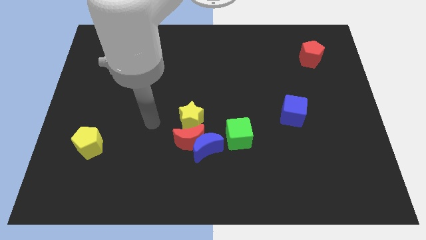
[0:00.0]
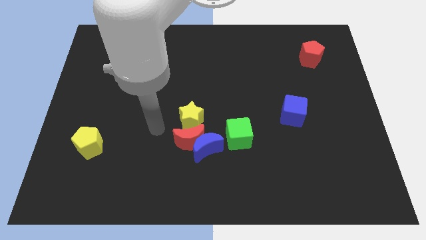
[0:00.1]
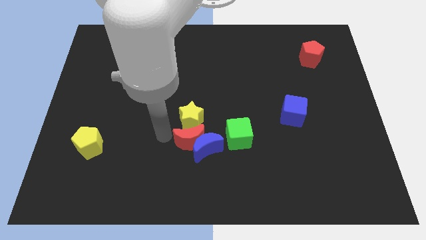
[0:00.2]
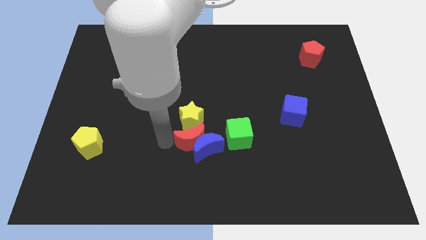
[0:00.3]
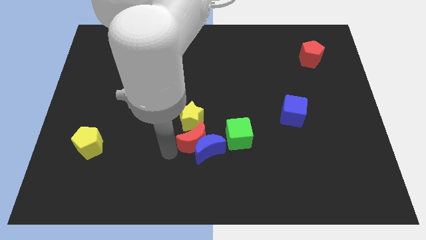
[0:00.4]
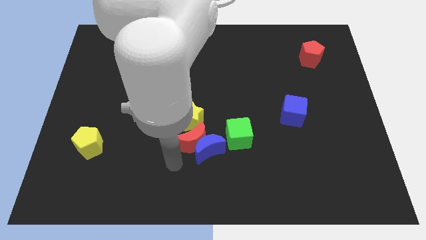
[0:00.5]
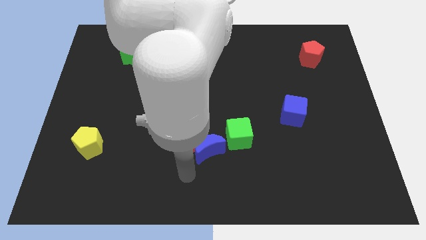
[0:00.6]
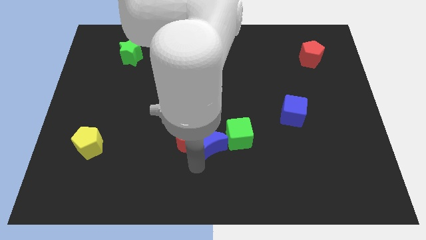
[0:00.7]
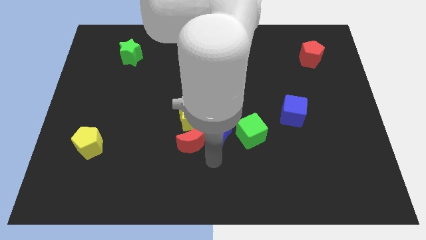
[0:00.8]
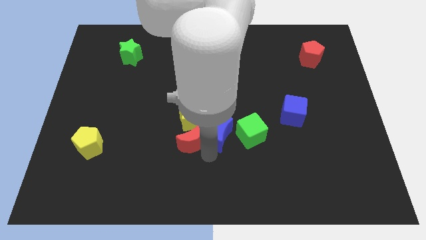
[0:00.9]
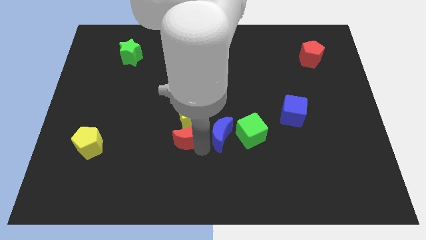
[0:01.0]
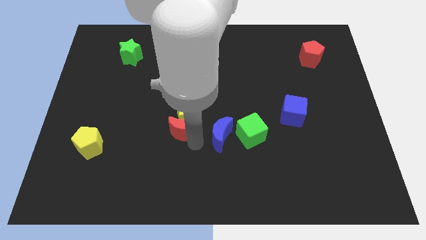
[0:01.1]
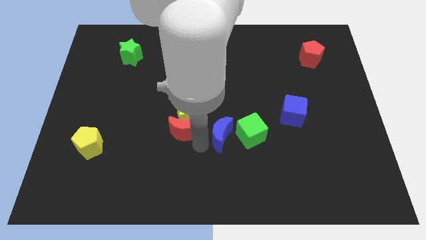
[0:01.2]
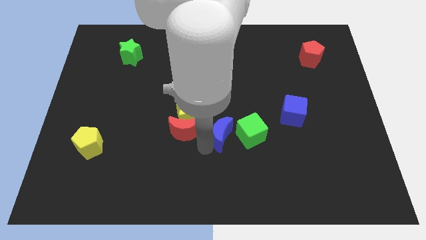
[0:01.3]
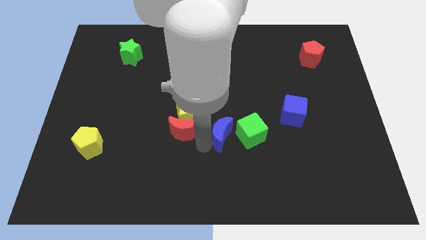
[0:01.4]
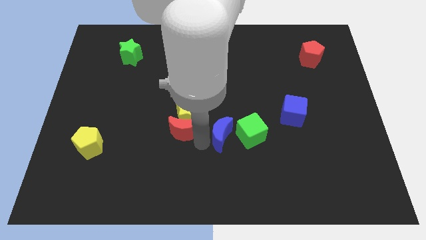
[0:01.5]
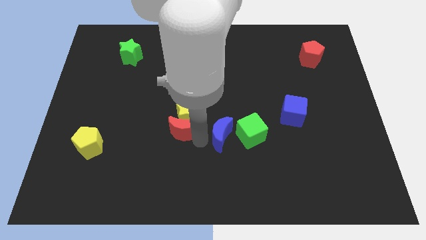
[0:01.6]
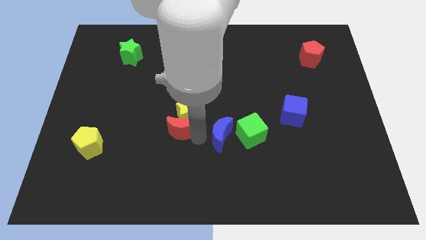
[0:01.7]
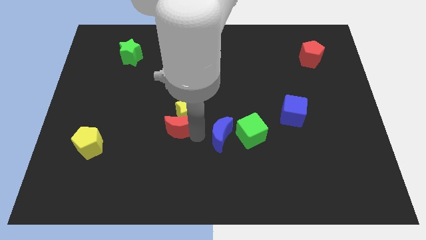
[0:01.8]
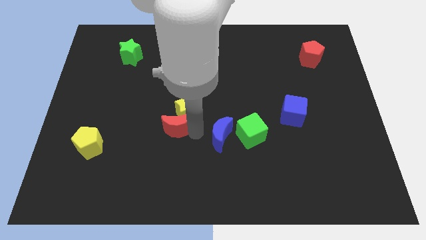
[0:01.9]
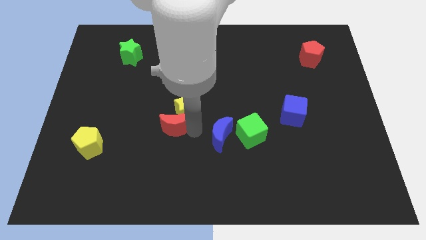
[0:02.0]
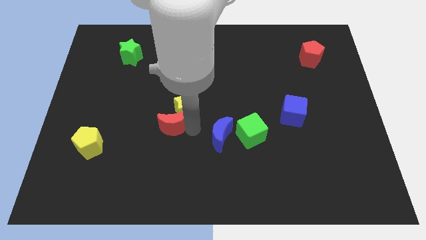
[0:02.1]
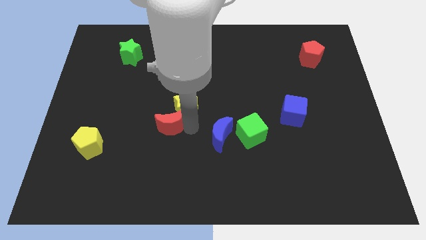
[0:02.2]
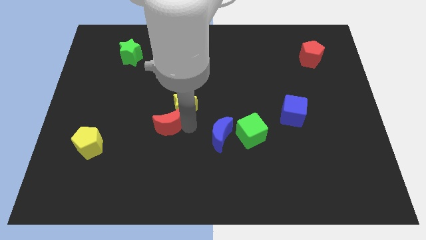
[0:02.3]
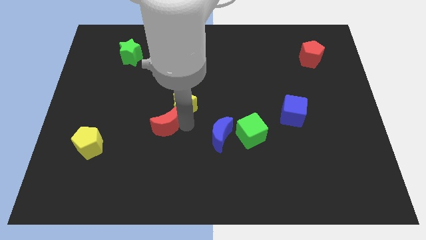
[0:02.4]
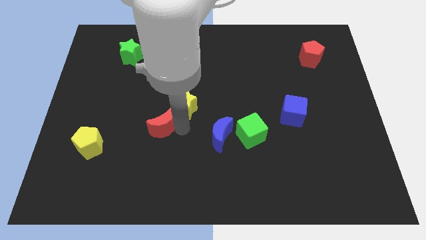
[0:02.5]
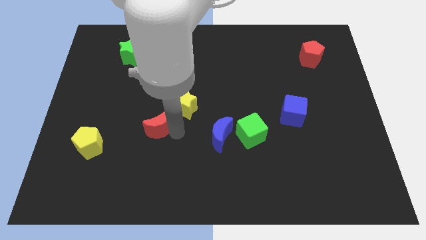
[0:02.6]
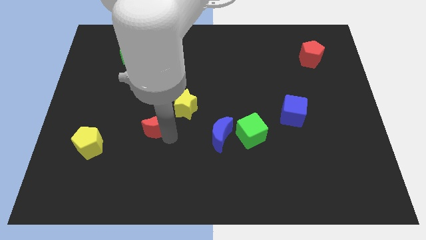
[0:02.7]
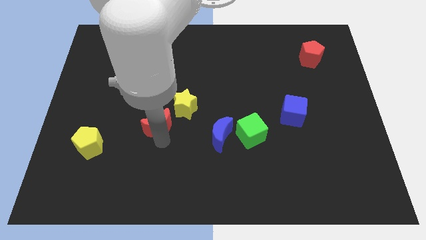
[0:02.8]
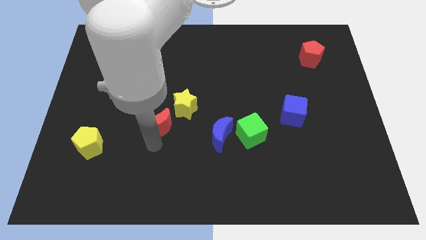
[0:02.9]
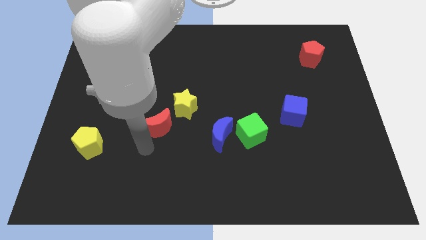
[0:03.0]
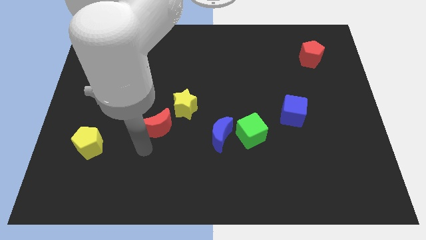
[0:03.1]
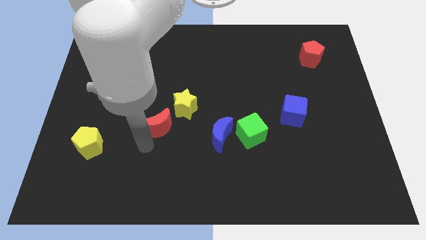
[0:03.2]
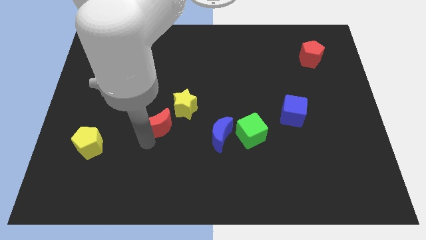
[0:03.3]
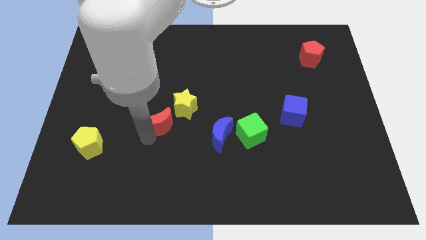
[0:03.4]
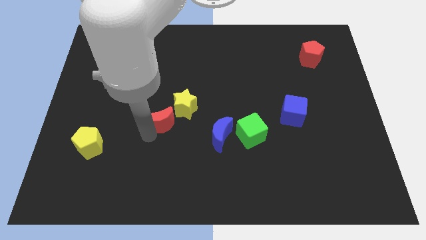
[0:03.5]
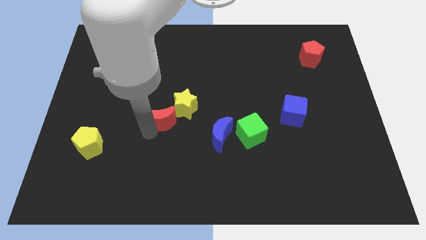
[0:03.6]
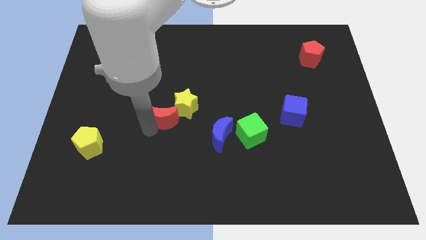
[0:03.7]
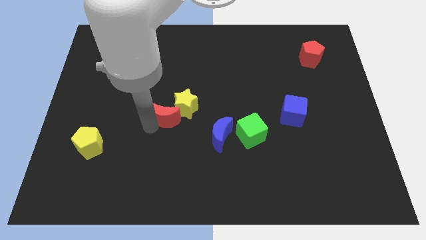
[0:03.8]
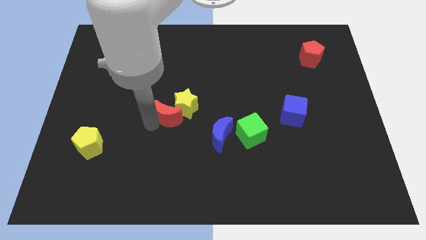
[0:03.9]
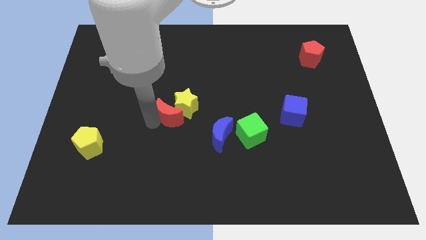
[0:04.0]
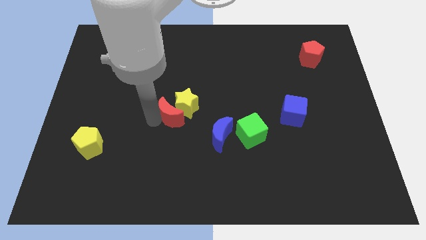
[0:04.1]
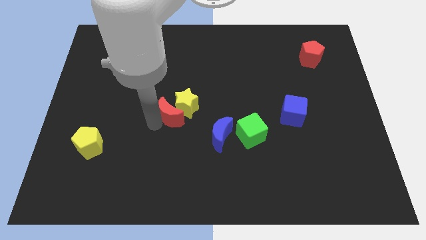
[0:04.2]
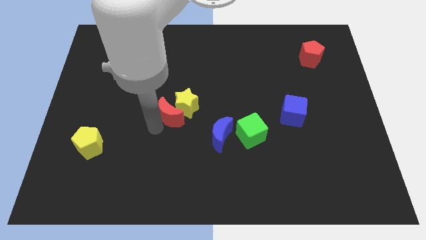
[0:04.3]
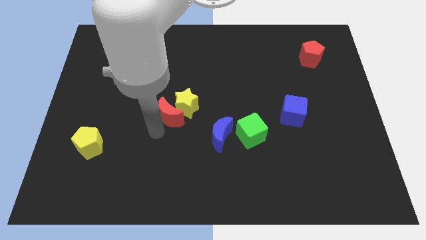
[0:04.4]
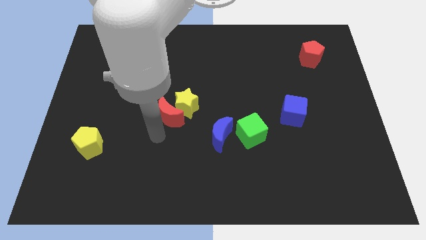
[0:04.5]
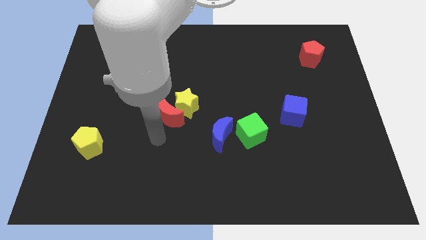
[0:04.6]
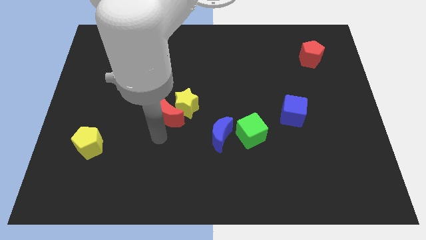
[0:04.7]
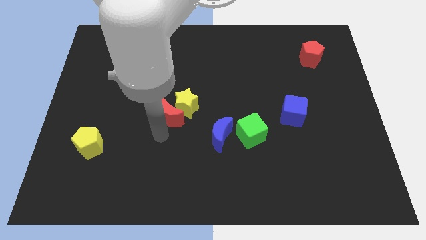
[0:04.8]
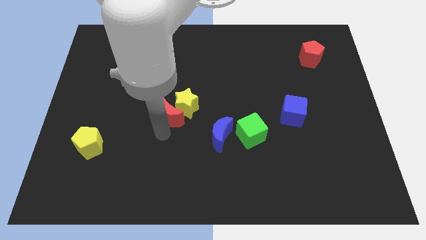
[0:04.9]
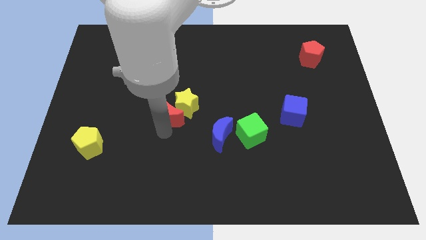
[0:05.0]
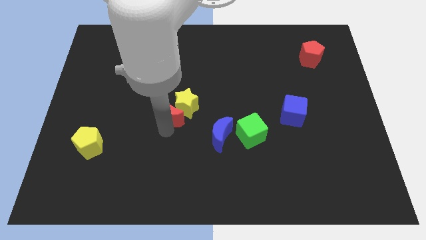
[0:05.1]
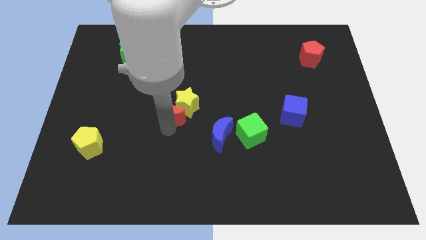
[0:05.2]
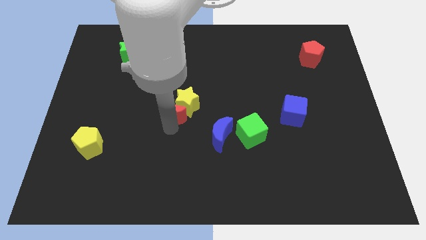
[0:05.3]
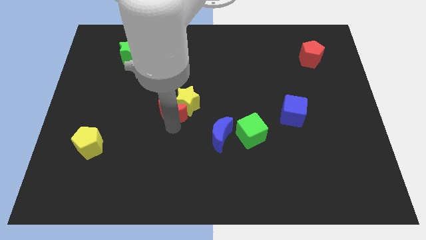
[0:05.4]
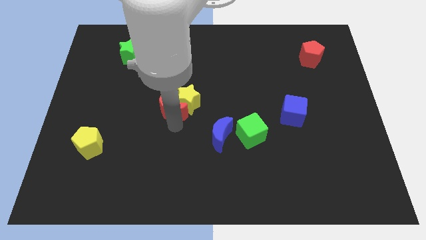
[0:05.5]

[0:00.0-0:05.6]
push the red moon a little bit upwards

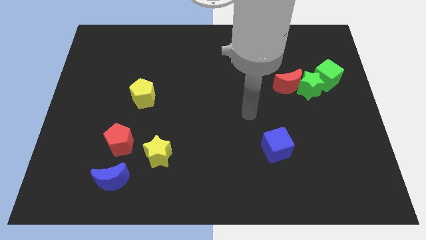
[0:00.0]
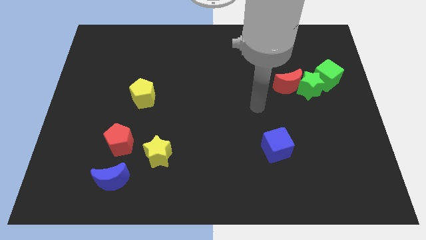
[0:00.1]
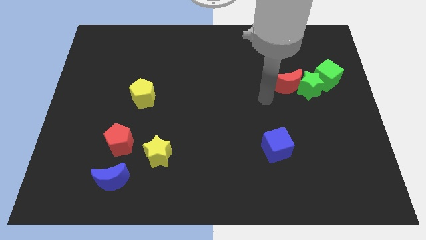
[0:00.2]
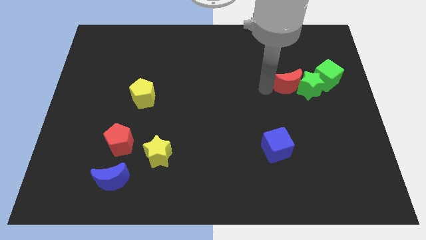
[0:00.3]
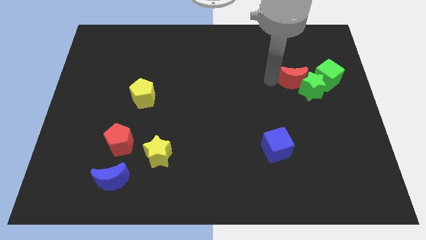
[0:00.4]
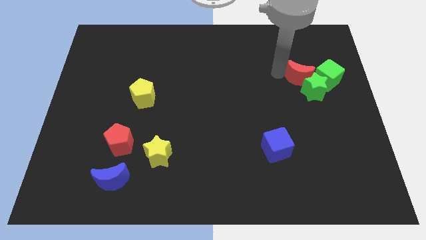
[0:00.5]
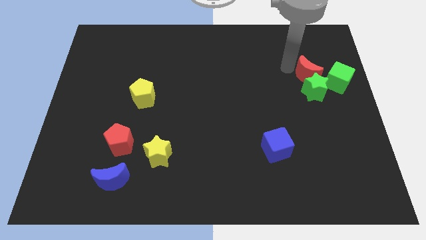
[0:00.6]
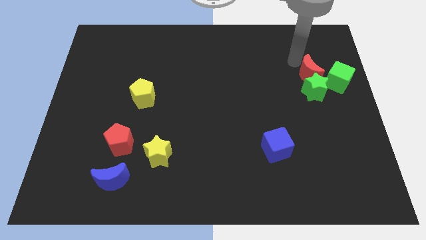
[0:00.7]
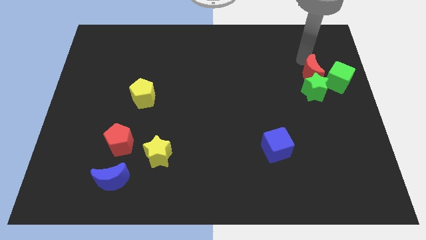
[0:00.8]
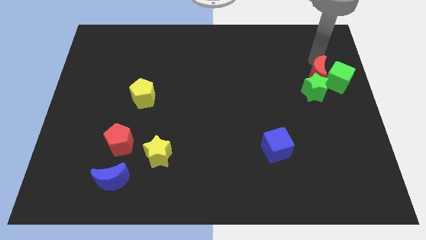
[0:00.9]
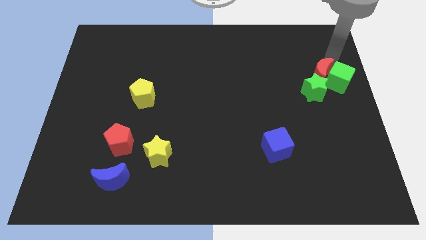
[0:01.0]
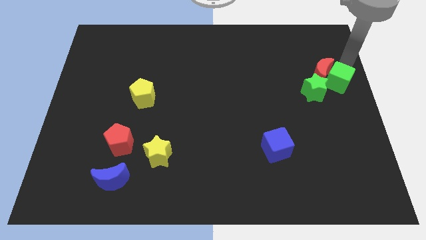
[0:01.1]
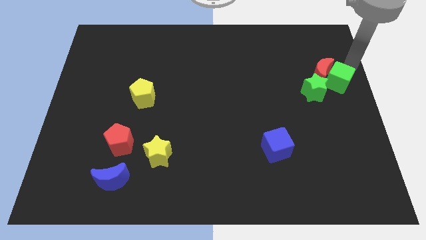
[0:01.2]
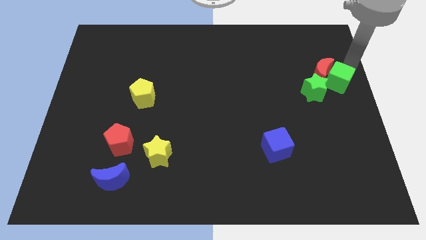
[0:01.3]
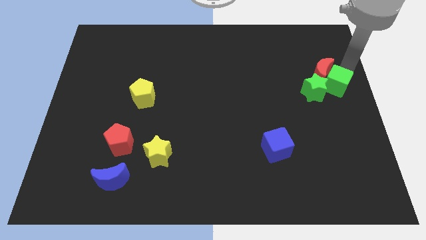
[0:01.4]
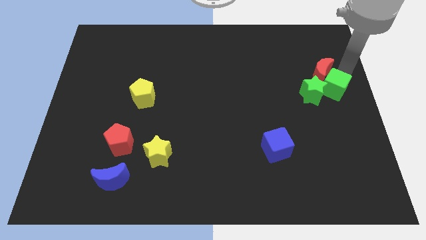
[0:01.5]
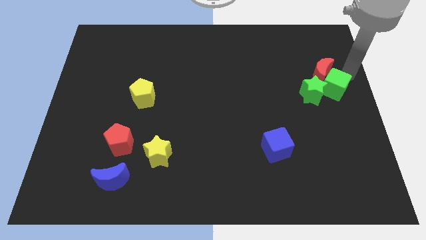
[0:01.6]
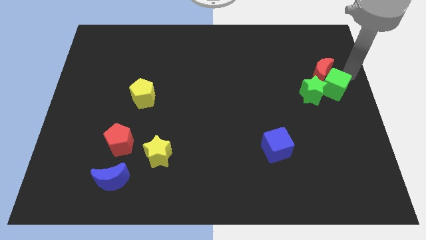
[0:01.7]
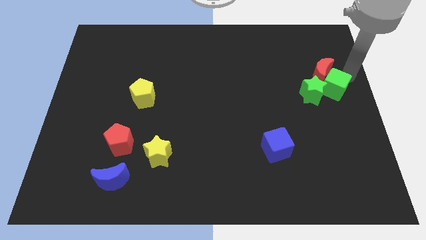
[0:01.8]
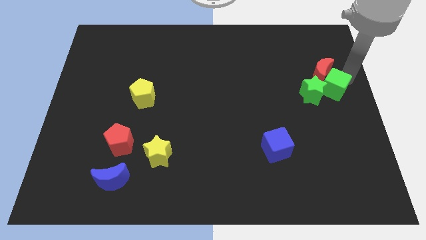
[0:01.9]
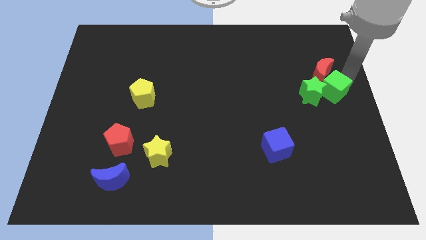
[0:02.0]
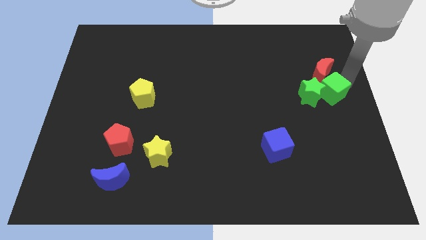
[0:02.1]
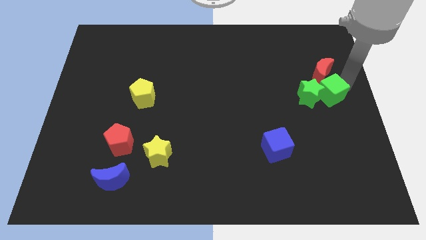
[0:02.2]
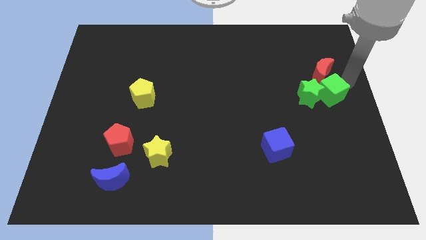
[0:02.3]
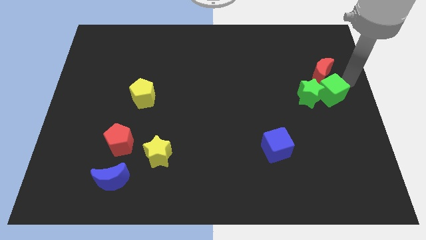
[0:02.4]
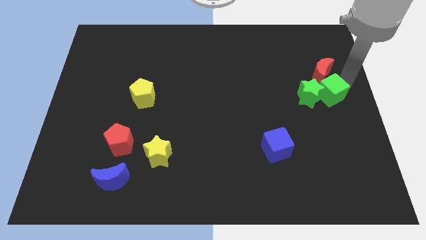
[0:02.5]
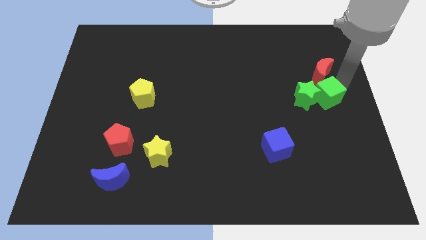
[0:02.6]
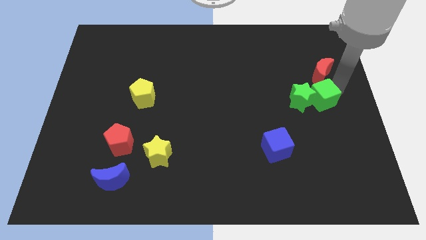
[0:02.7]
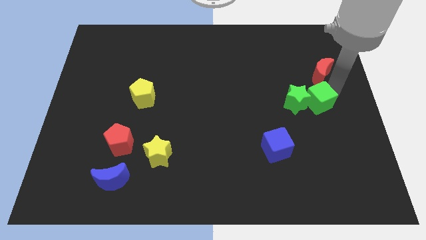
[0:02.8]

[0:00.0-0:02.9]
slide the green cube a little down and left
